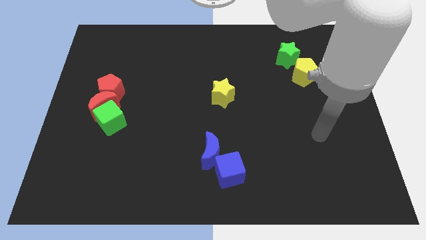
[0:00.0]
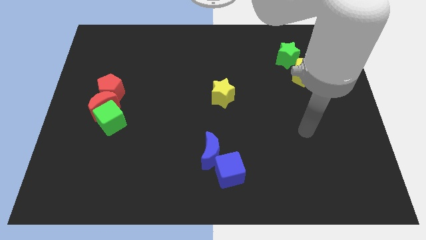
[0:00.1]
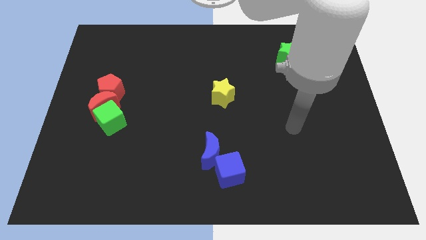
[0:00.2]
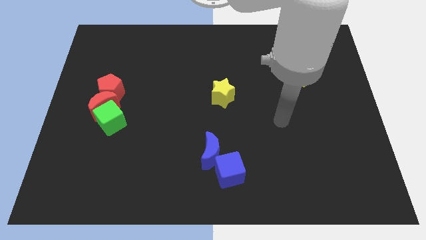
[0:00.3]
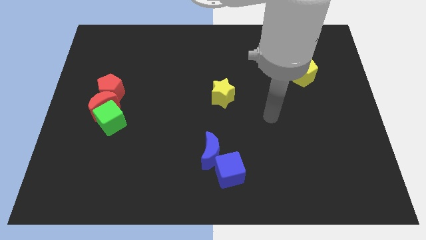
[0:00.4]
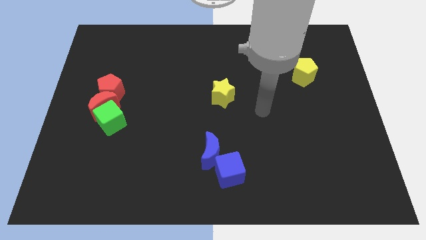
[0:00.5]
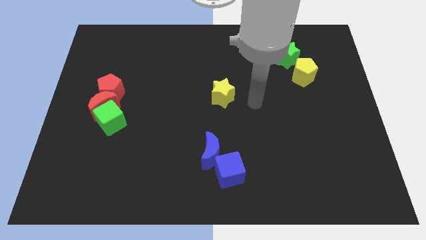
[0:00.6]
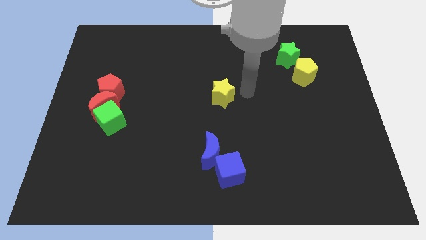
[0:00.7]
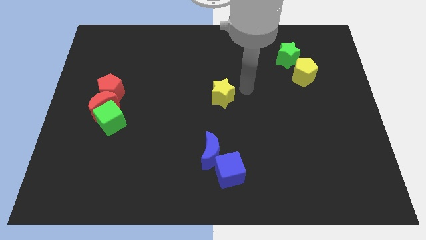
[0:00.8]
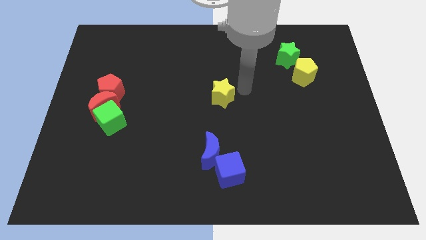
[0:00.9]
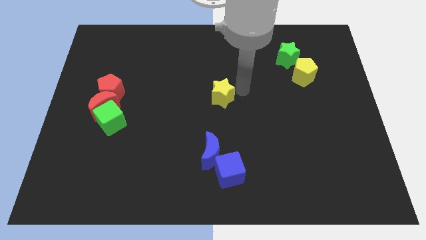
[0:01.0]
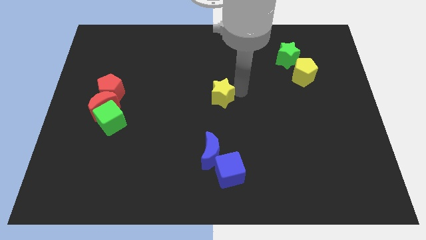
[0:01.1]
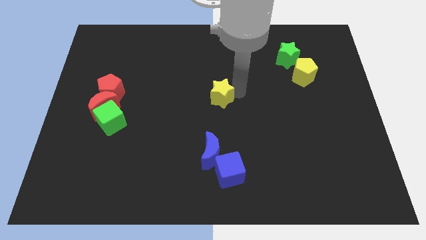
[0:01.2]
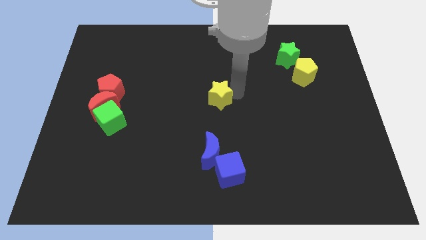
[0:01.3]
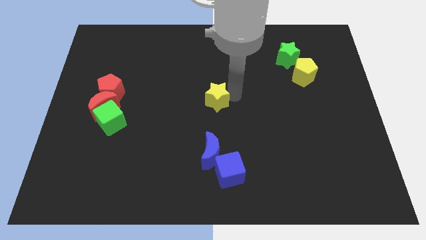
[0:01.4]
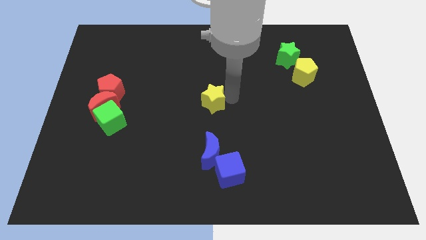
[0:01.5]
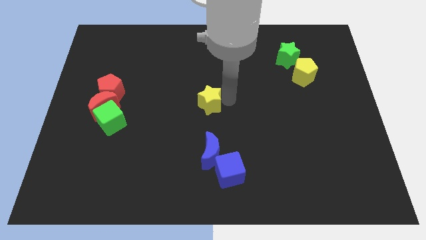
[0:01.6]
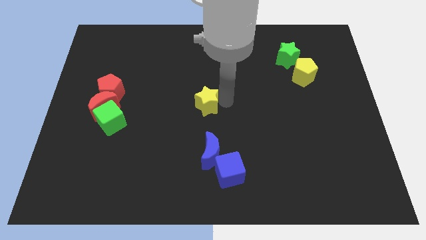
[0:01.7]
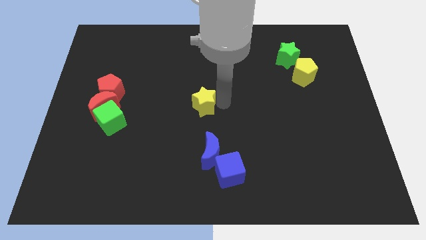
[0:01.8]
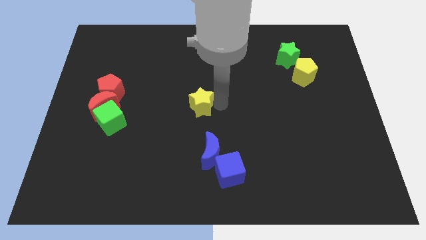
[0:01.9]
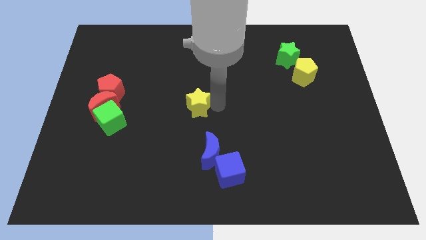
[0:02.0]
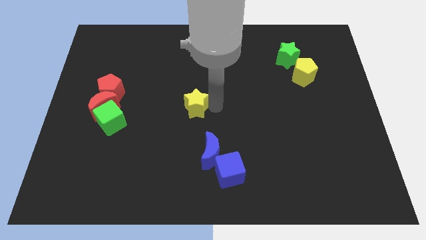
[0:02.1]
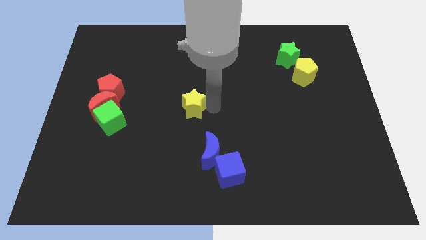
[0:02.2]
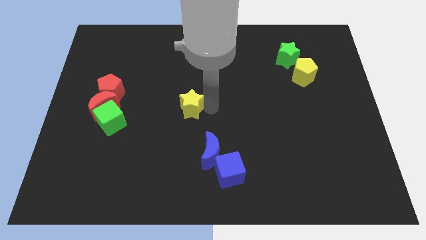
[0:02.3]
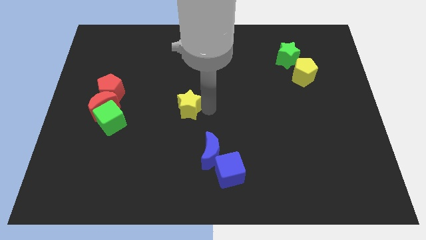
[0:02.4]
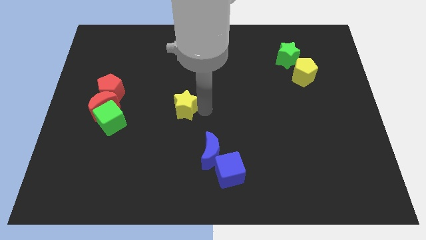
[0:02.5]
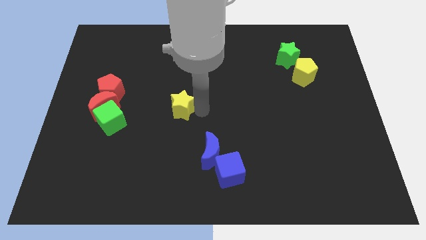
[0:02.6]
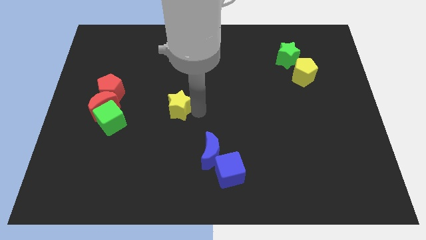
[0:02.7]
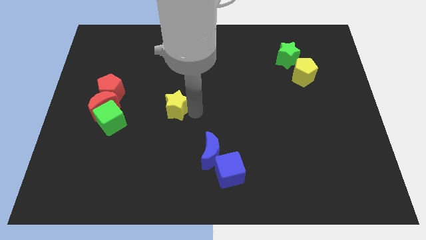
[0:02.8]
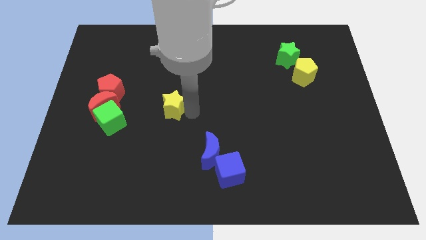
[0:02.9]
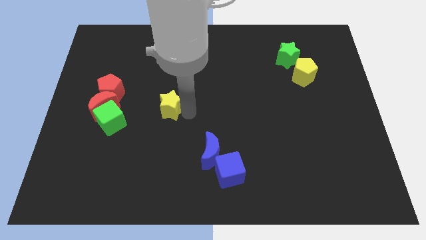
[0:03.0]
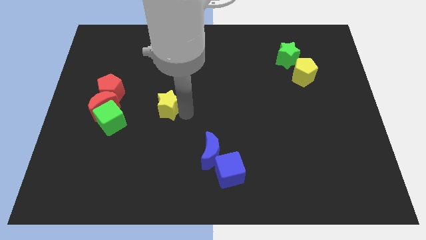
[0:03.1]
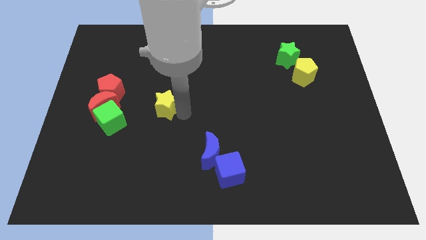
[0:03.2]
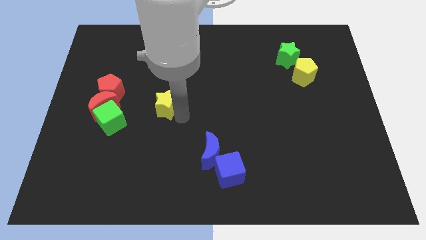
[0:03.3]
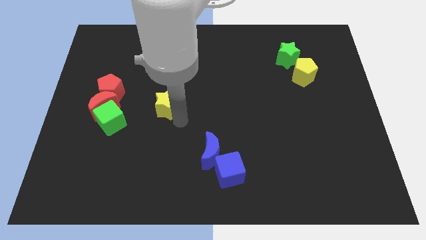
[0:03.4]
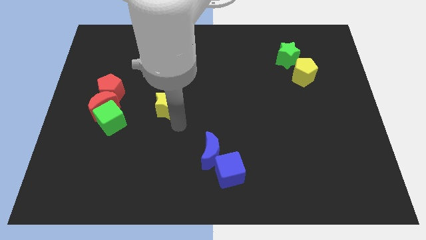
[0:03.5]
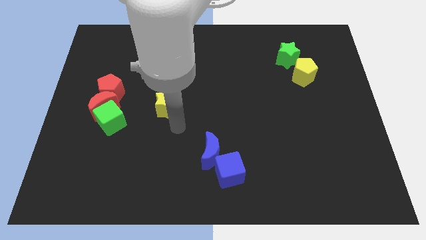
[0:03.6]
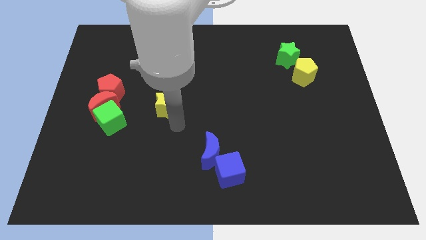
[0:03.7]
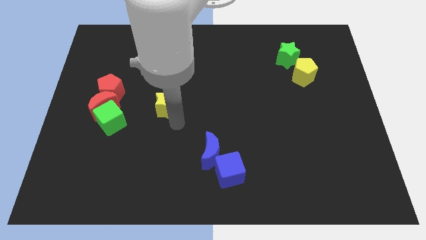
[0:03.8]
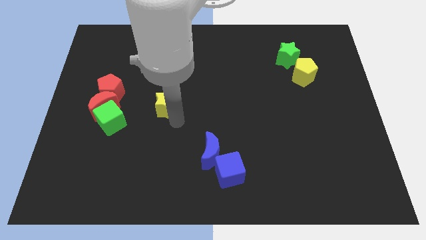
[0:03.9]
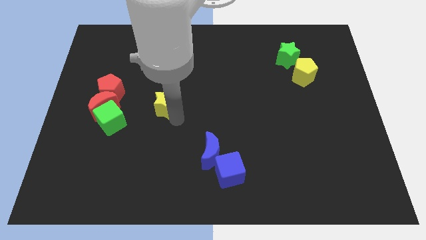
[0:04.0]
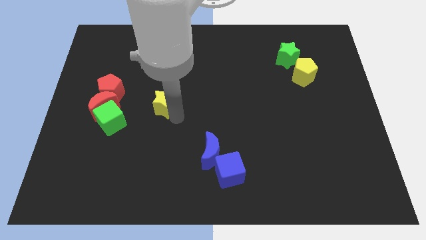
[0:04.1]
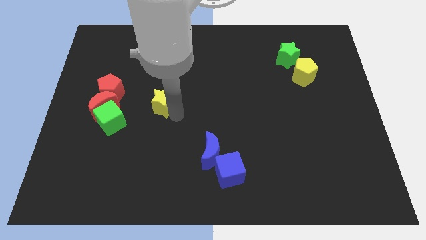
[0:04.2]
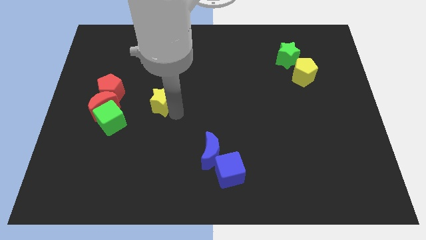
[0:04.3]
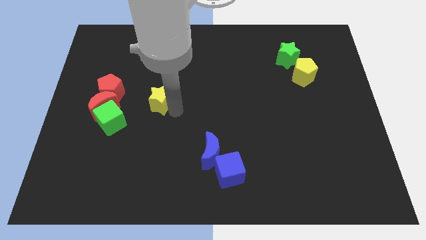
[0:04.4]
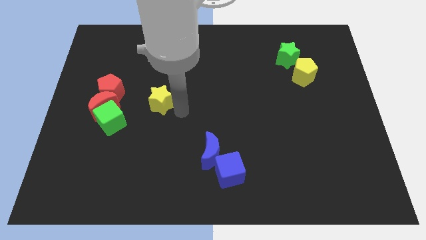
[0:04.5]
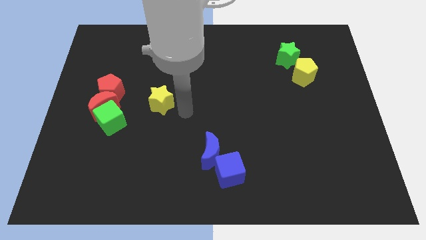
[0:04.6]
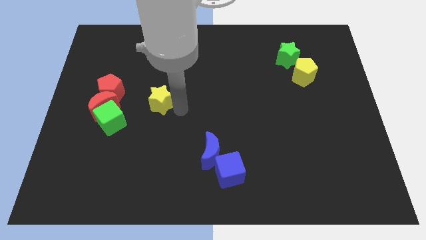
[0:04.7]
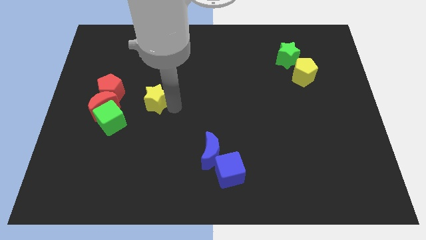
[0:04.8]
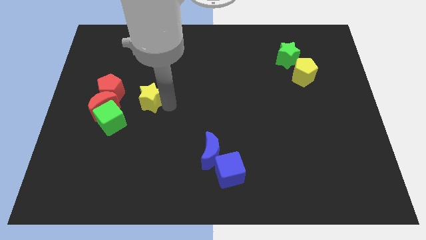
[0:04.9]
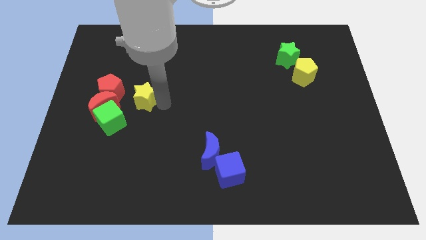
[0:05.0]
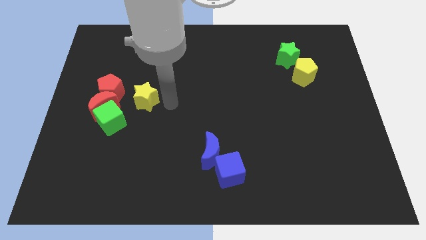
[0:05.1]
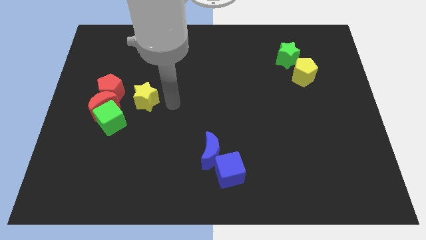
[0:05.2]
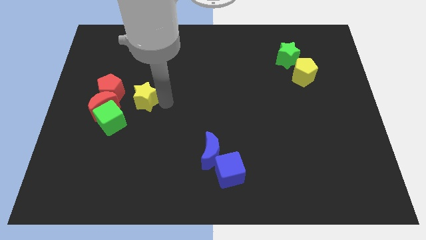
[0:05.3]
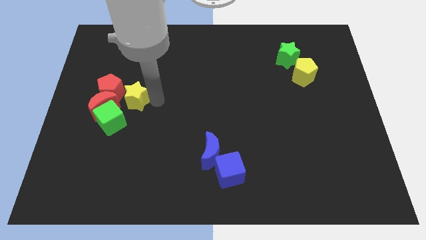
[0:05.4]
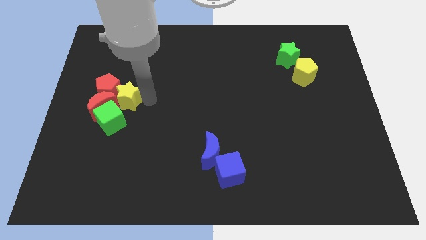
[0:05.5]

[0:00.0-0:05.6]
move the yellow star next to the red pentagon

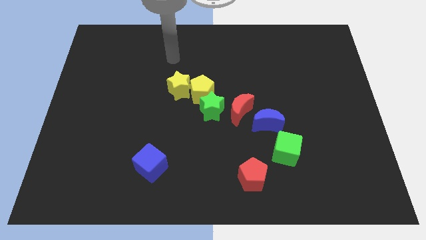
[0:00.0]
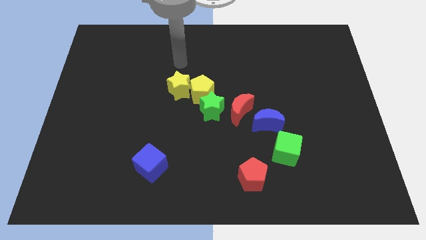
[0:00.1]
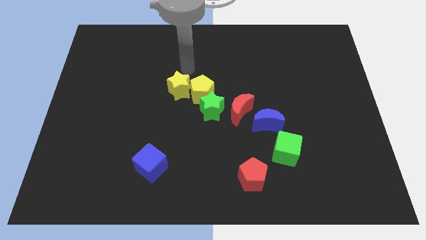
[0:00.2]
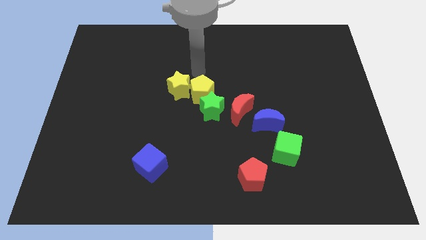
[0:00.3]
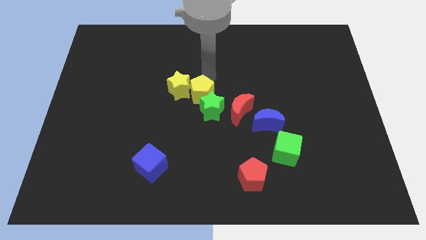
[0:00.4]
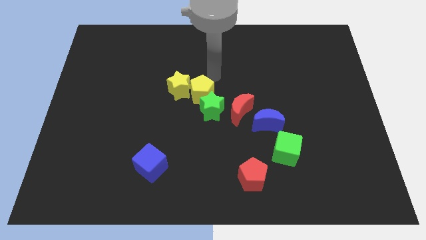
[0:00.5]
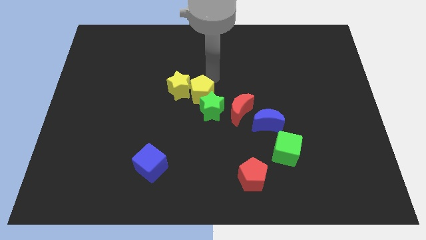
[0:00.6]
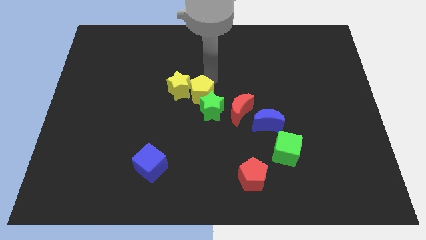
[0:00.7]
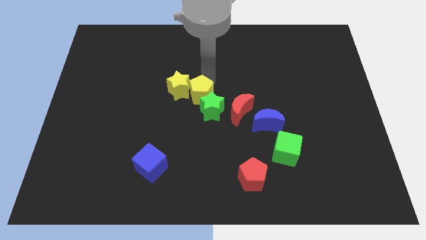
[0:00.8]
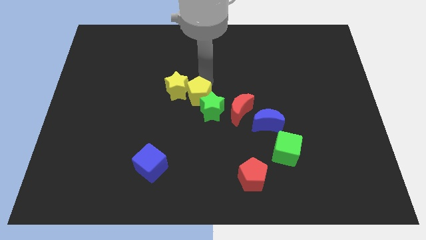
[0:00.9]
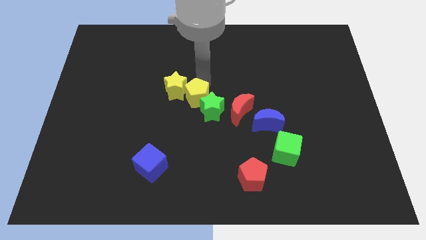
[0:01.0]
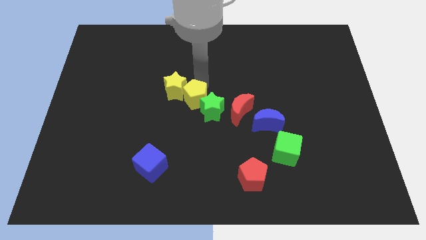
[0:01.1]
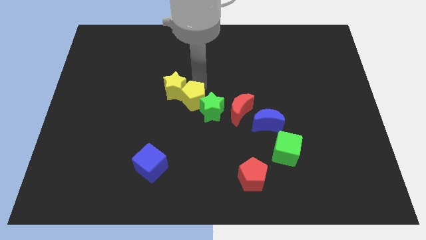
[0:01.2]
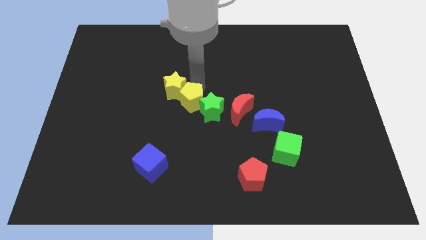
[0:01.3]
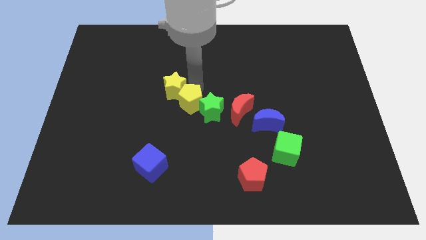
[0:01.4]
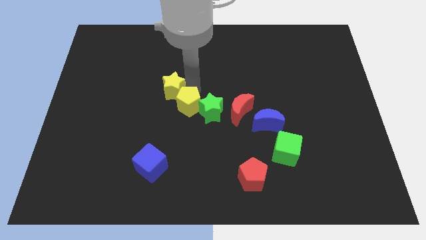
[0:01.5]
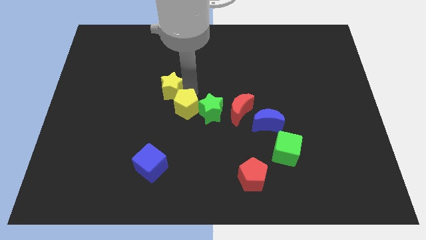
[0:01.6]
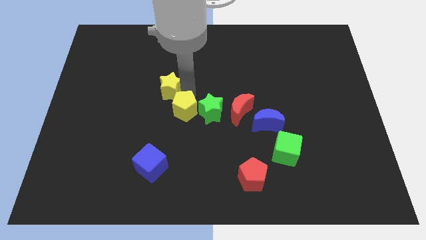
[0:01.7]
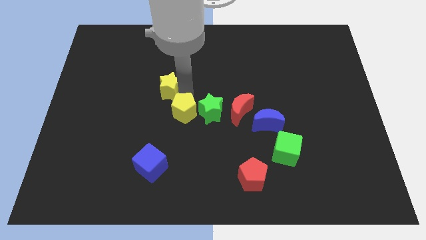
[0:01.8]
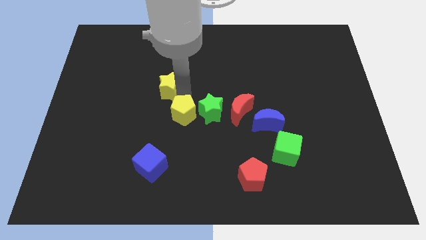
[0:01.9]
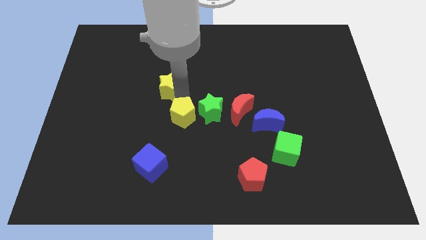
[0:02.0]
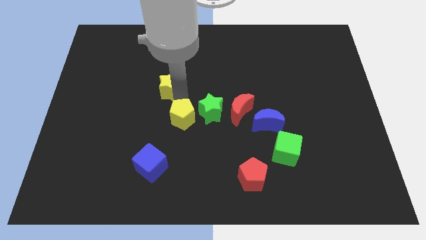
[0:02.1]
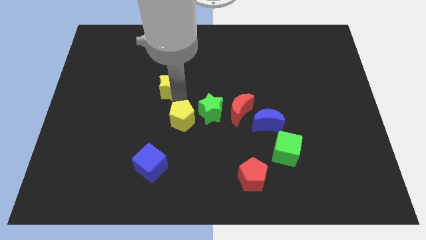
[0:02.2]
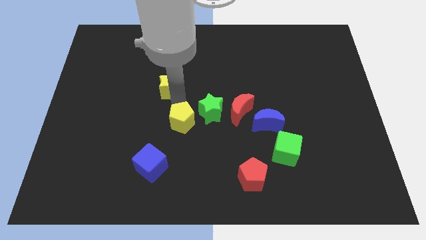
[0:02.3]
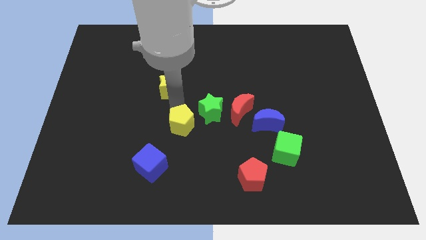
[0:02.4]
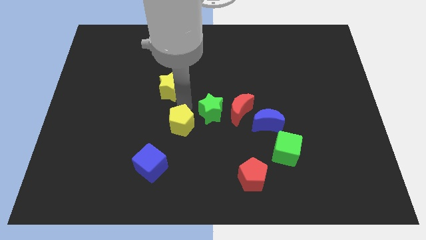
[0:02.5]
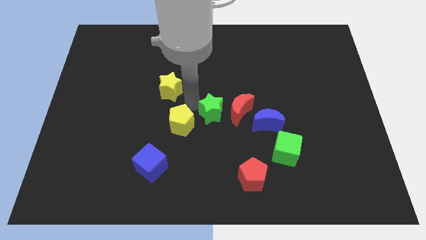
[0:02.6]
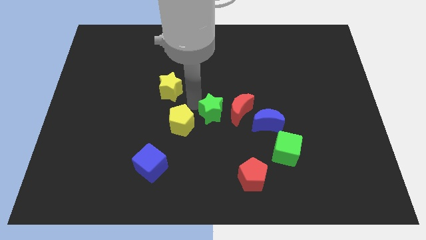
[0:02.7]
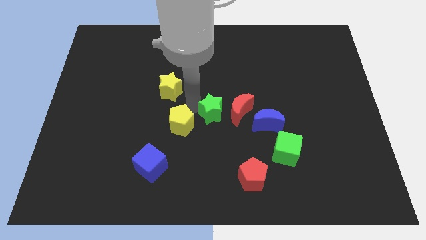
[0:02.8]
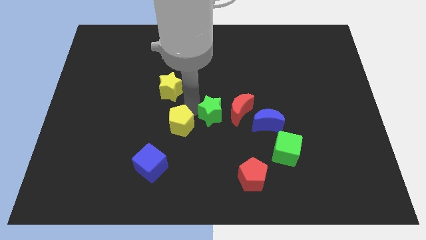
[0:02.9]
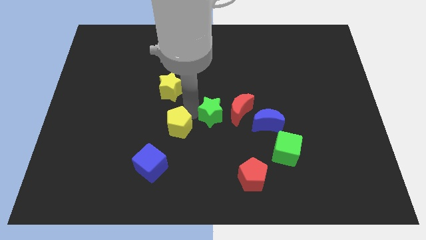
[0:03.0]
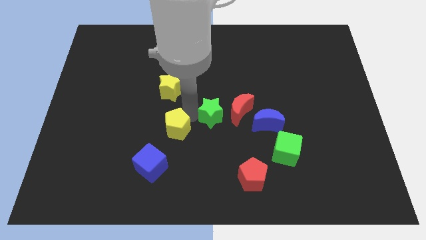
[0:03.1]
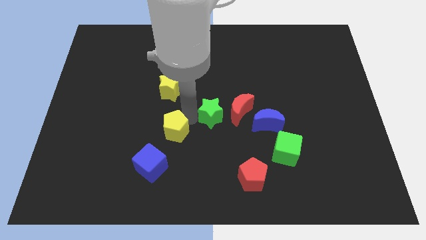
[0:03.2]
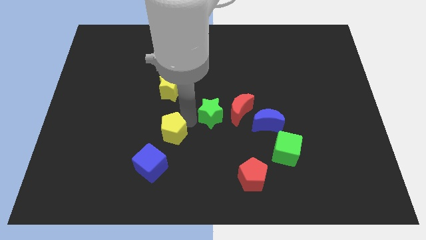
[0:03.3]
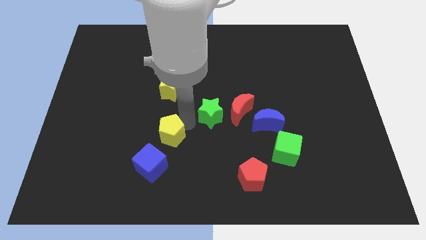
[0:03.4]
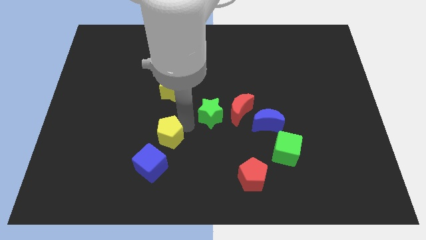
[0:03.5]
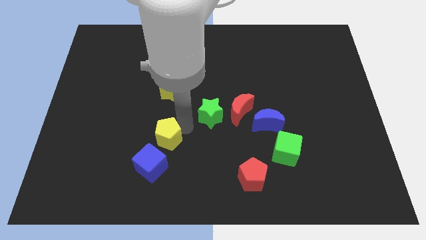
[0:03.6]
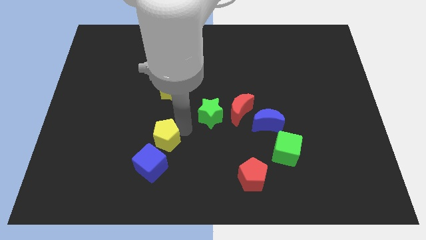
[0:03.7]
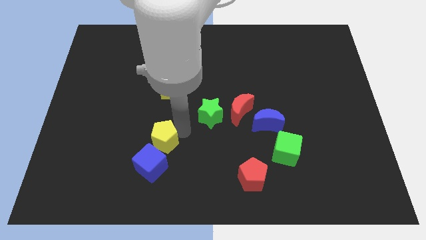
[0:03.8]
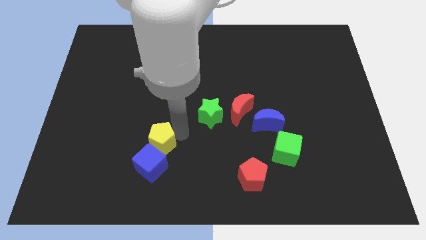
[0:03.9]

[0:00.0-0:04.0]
slide the yellow pentagon towards the blue cube
